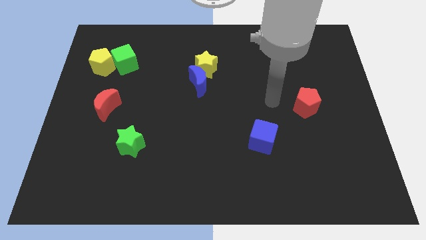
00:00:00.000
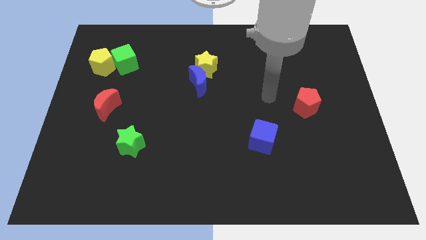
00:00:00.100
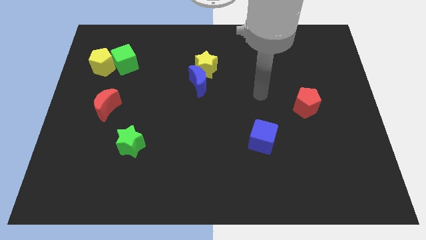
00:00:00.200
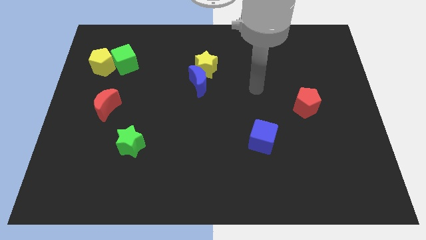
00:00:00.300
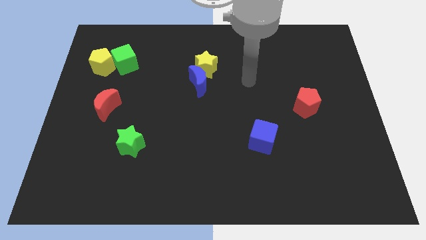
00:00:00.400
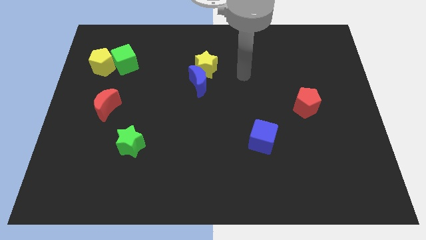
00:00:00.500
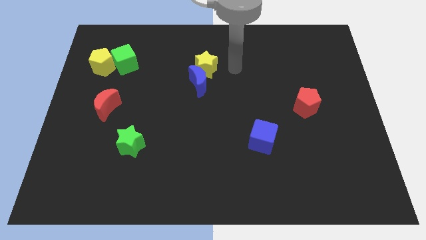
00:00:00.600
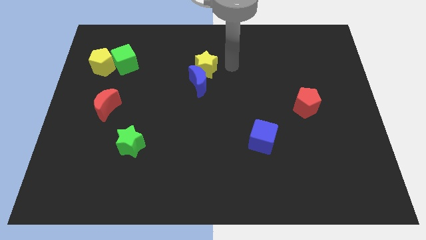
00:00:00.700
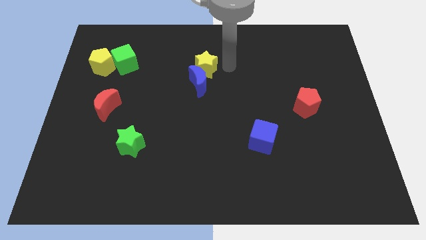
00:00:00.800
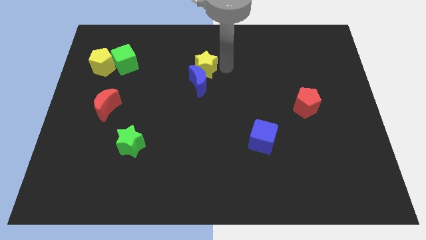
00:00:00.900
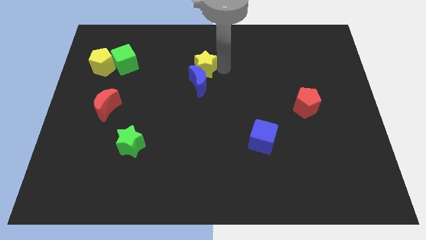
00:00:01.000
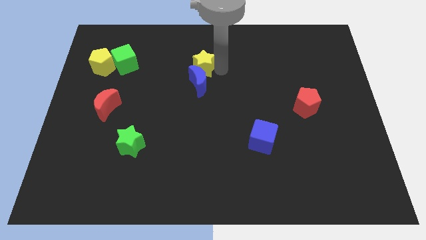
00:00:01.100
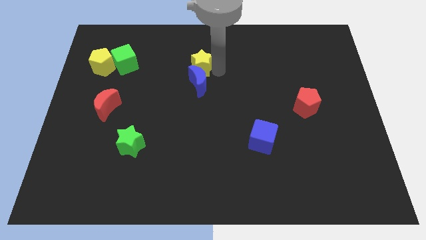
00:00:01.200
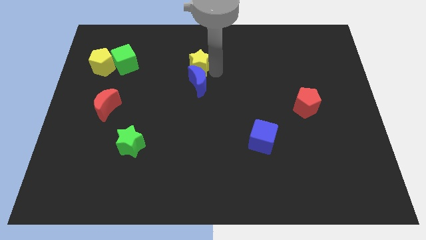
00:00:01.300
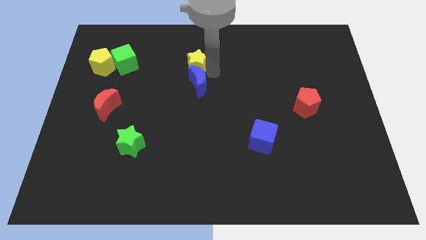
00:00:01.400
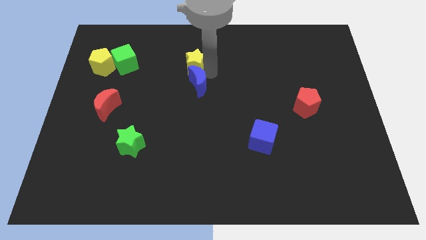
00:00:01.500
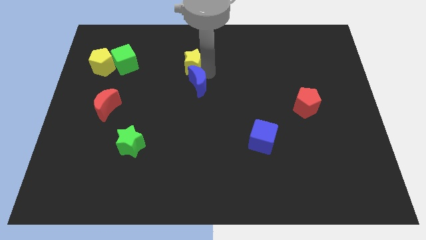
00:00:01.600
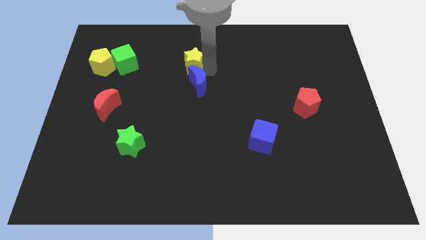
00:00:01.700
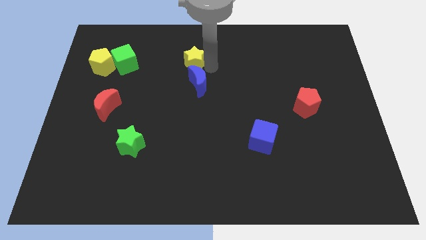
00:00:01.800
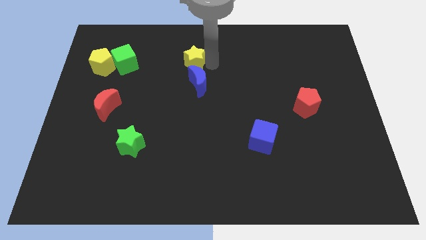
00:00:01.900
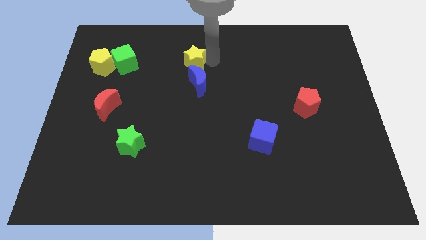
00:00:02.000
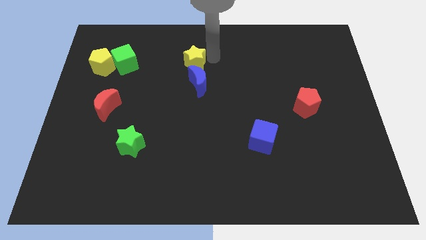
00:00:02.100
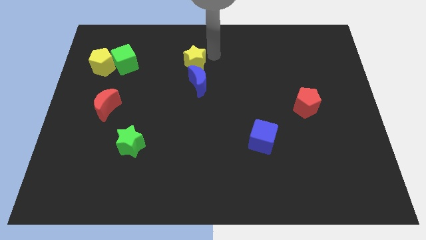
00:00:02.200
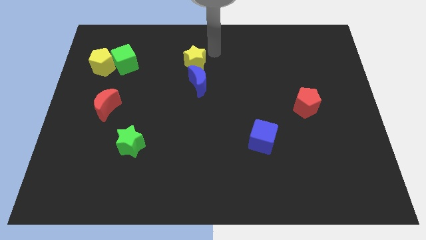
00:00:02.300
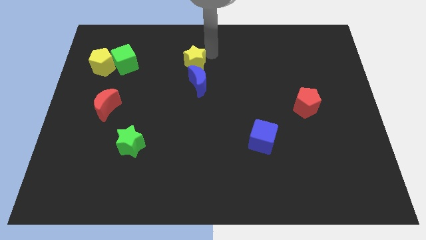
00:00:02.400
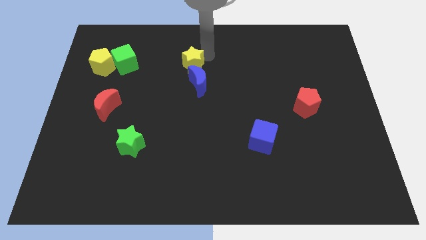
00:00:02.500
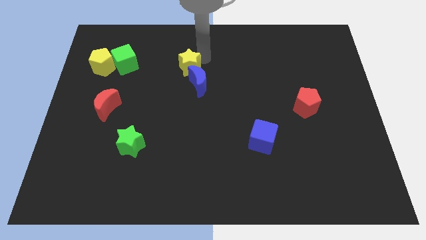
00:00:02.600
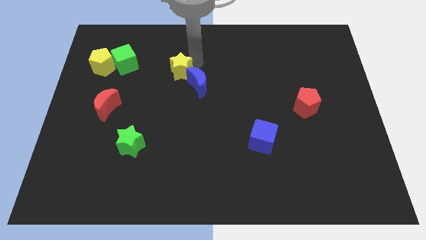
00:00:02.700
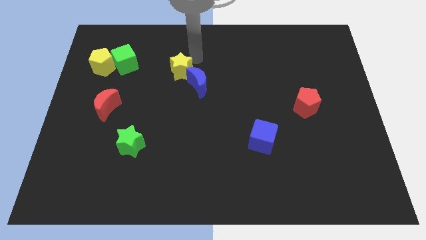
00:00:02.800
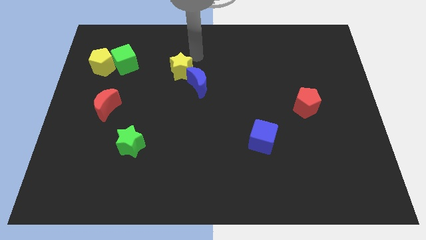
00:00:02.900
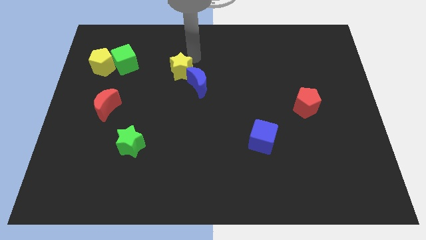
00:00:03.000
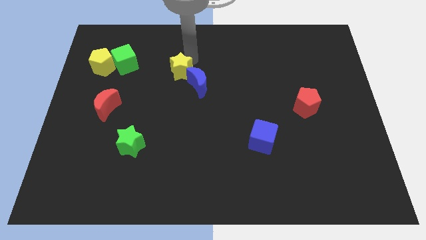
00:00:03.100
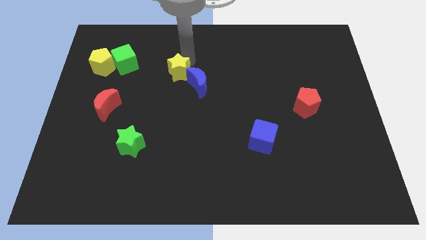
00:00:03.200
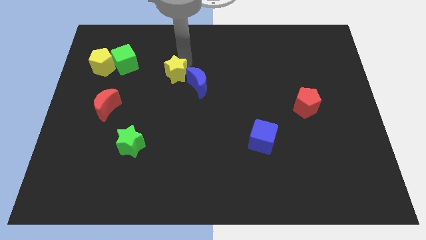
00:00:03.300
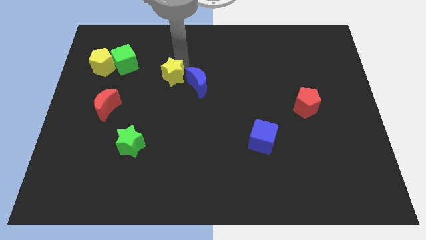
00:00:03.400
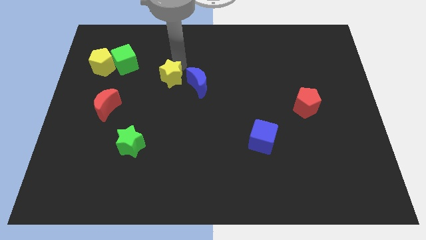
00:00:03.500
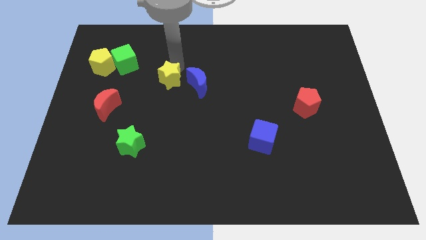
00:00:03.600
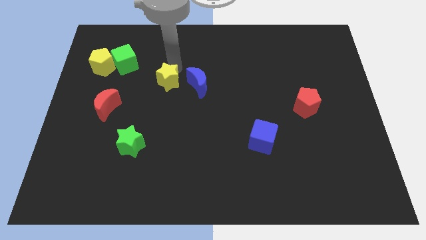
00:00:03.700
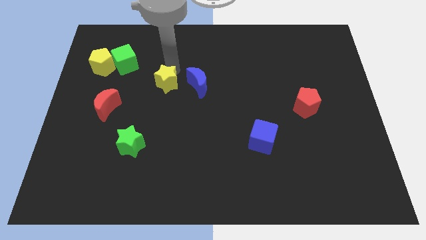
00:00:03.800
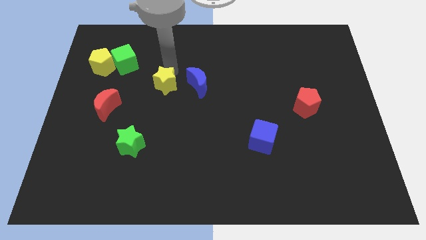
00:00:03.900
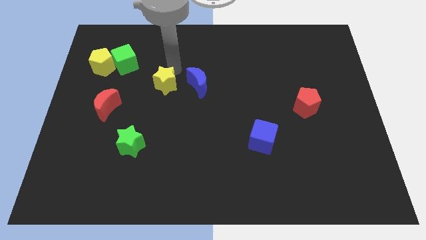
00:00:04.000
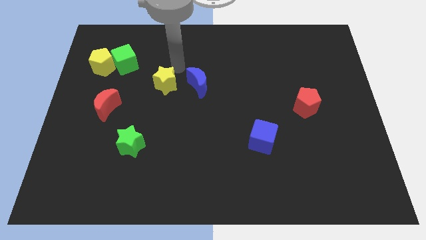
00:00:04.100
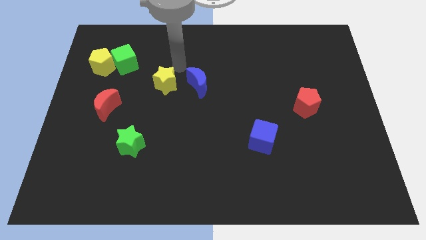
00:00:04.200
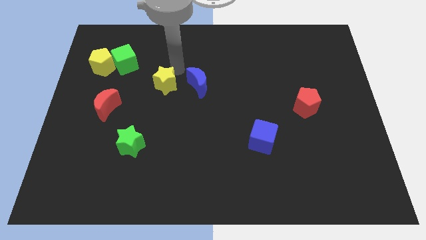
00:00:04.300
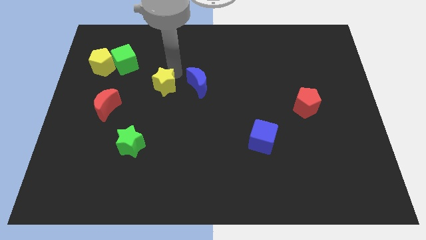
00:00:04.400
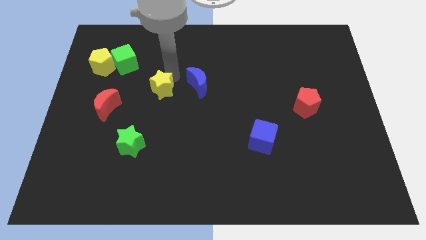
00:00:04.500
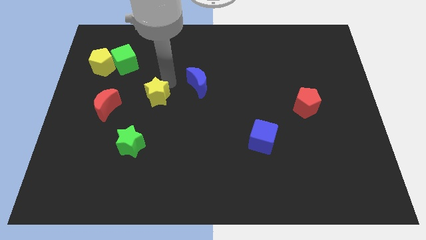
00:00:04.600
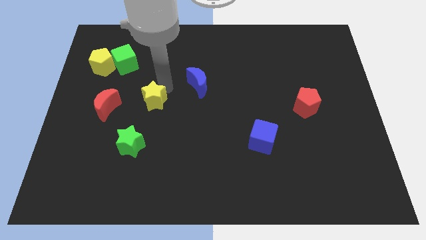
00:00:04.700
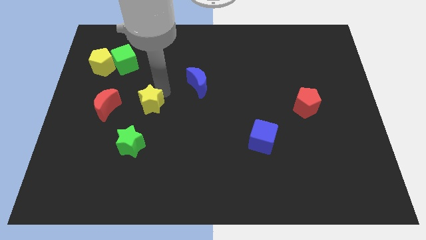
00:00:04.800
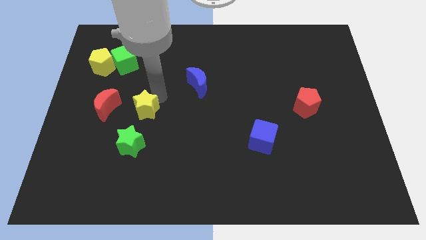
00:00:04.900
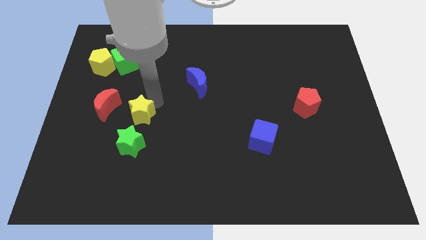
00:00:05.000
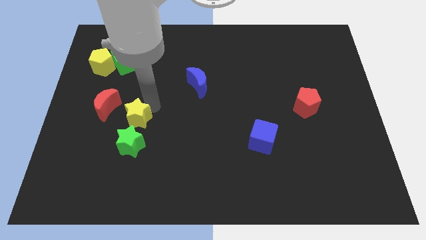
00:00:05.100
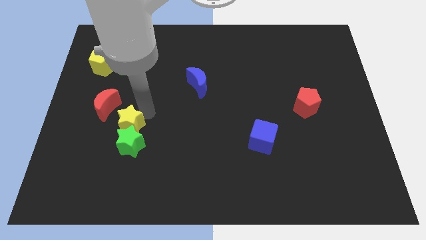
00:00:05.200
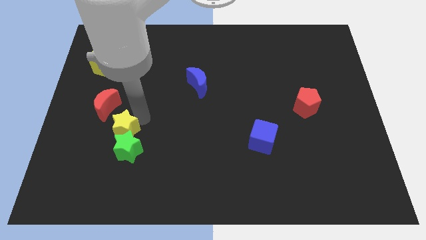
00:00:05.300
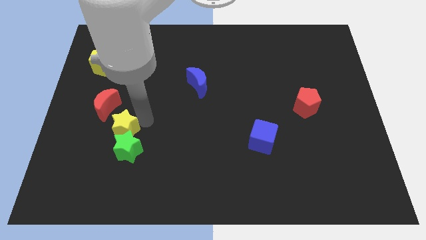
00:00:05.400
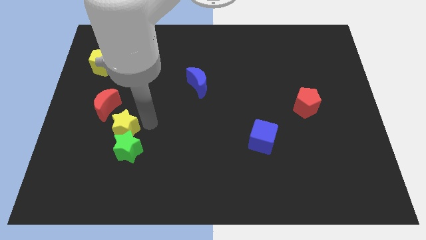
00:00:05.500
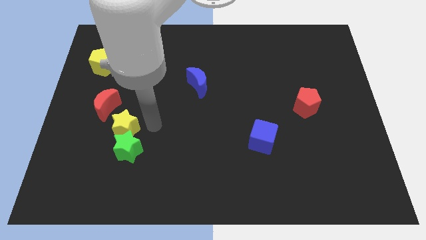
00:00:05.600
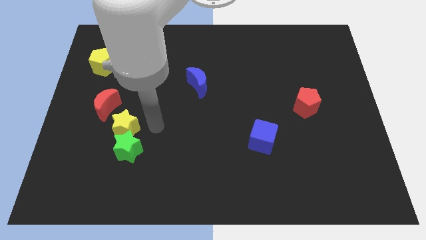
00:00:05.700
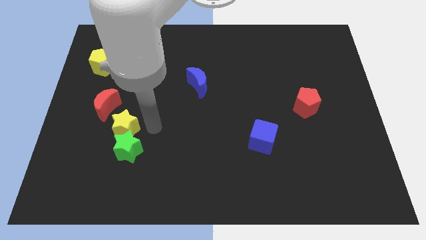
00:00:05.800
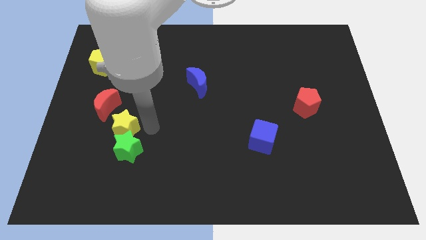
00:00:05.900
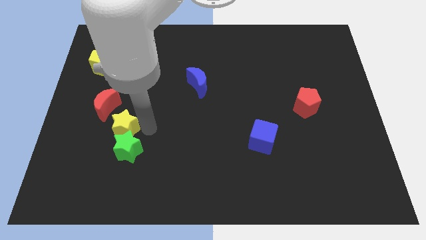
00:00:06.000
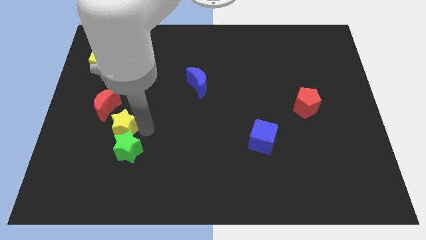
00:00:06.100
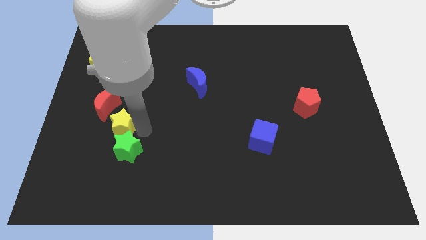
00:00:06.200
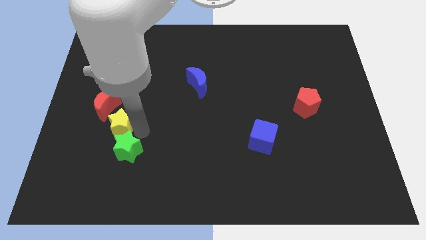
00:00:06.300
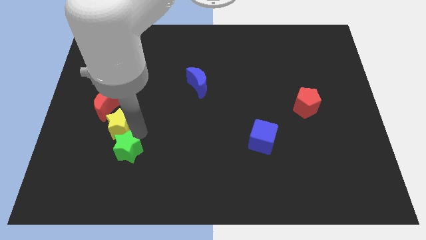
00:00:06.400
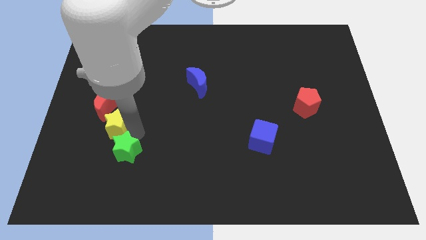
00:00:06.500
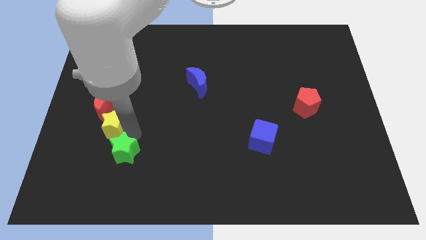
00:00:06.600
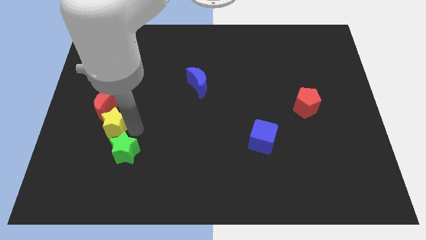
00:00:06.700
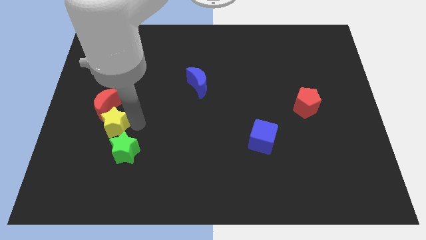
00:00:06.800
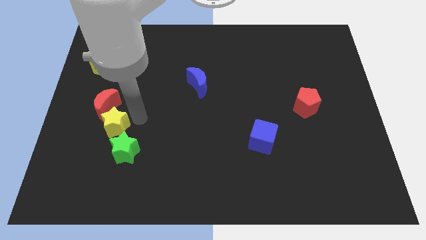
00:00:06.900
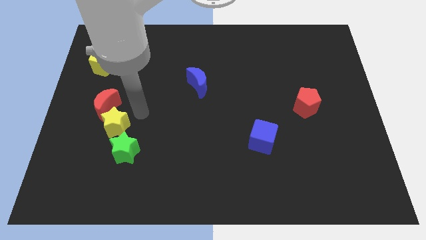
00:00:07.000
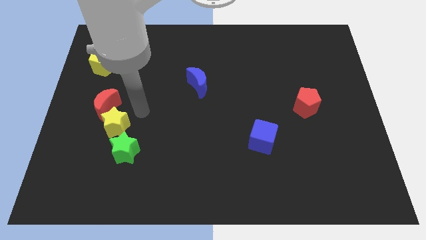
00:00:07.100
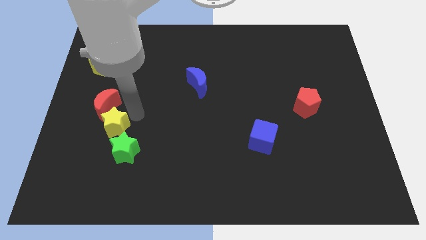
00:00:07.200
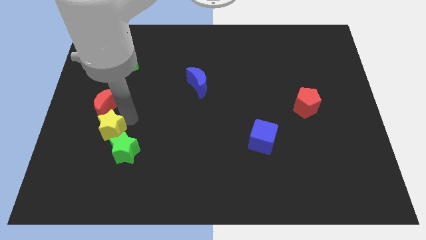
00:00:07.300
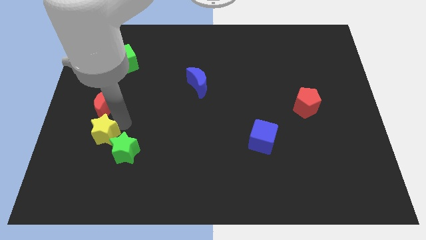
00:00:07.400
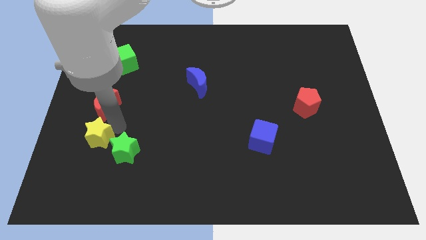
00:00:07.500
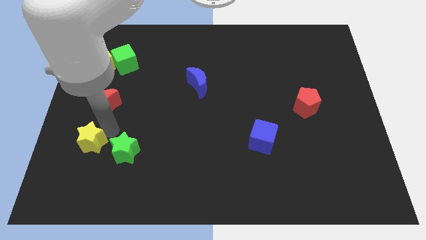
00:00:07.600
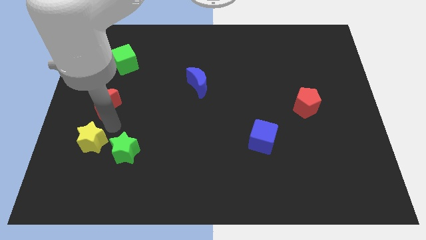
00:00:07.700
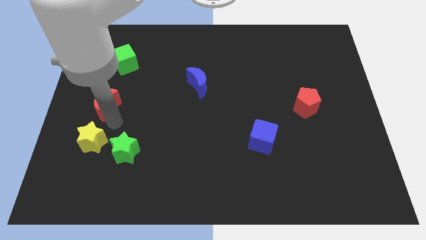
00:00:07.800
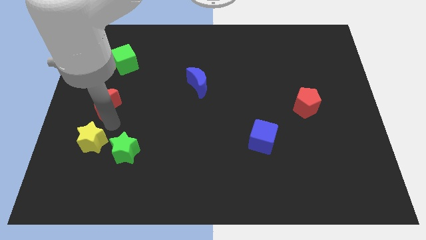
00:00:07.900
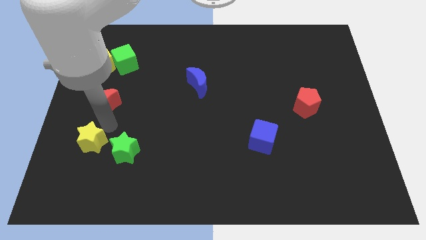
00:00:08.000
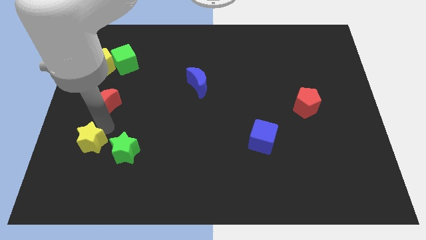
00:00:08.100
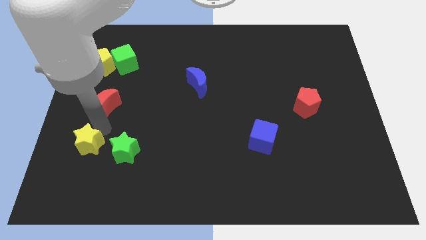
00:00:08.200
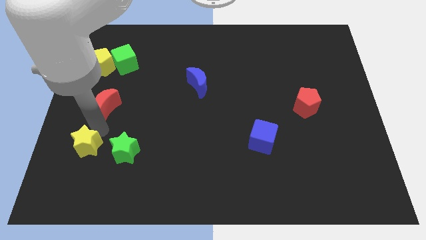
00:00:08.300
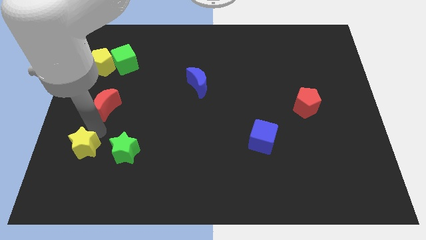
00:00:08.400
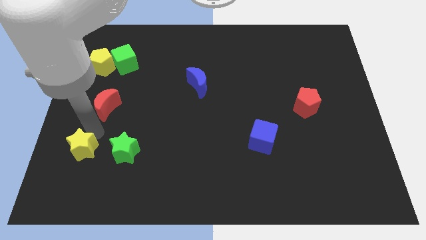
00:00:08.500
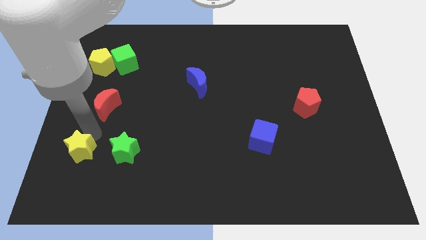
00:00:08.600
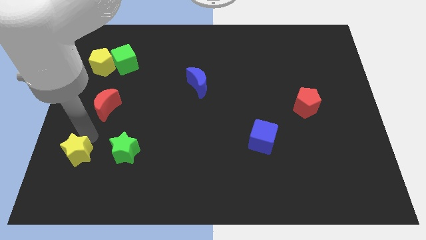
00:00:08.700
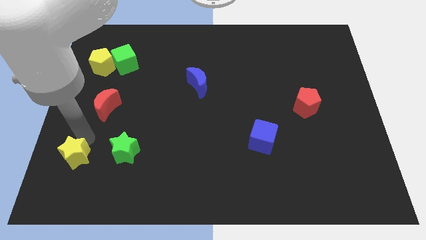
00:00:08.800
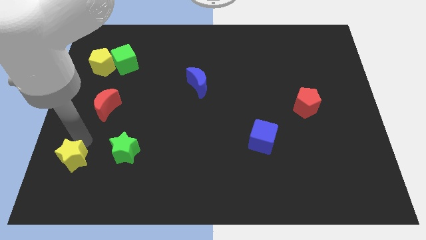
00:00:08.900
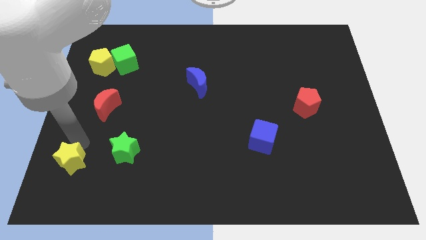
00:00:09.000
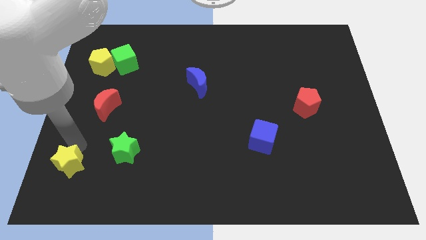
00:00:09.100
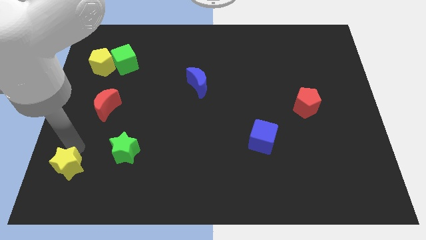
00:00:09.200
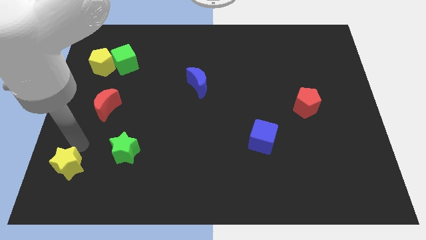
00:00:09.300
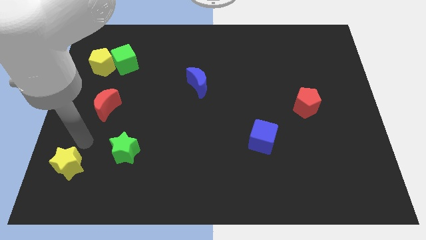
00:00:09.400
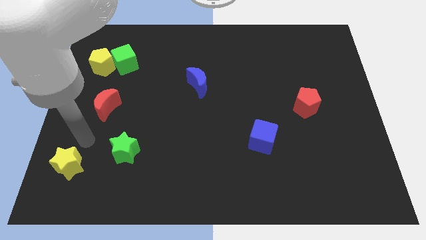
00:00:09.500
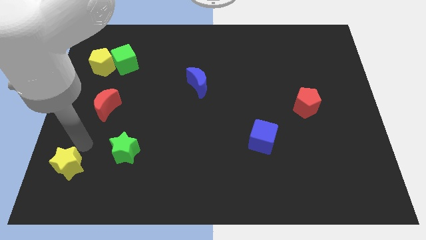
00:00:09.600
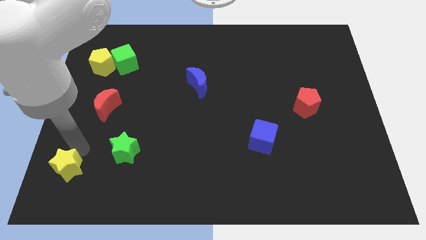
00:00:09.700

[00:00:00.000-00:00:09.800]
put the yellow star to the bottom left of the board
